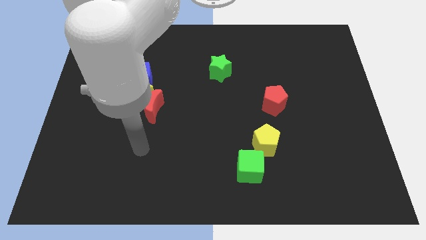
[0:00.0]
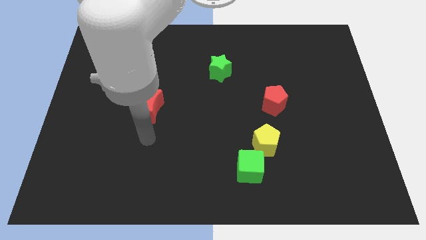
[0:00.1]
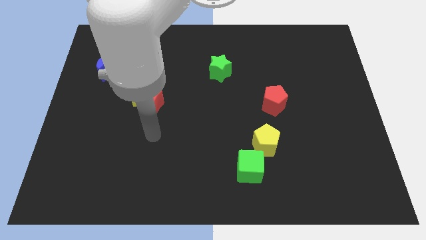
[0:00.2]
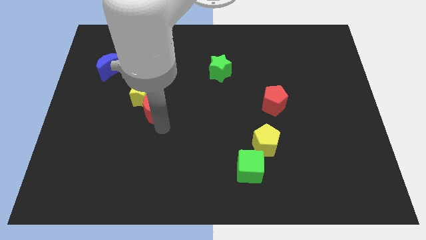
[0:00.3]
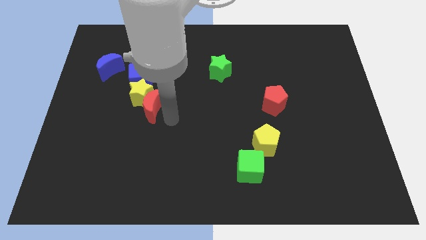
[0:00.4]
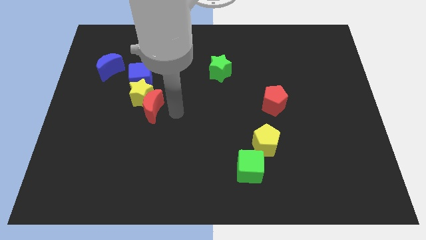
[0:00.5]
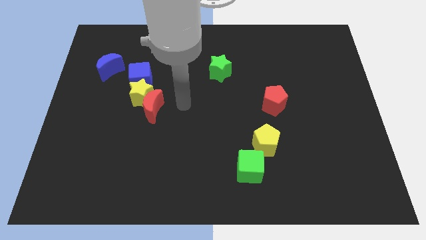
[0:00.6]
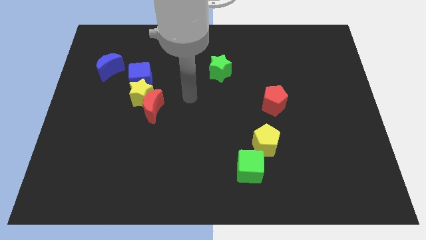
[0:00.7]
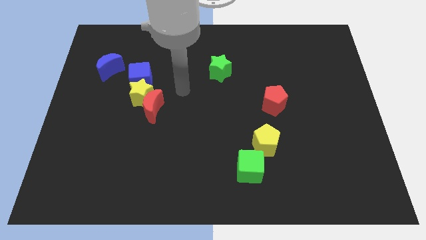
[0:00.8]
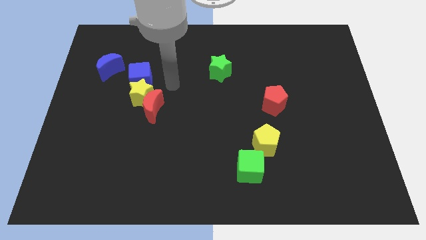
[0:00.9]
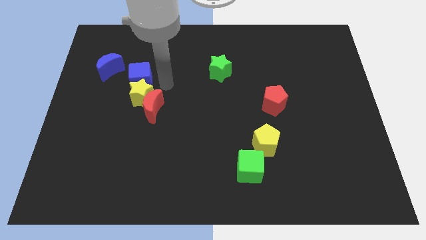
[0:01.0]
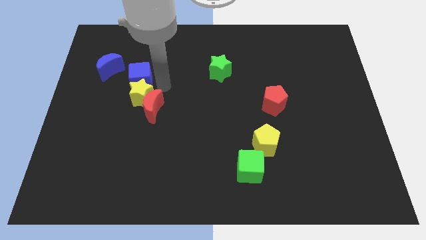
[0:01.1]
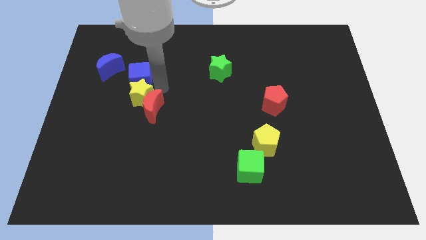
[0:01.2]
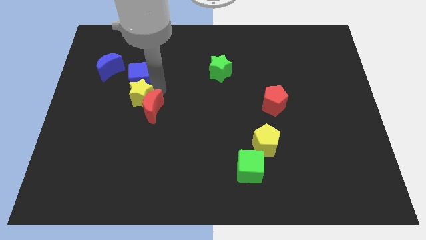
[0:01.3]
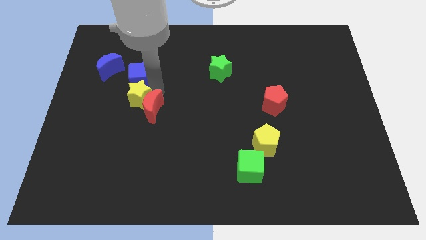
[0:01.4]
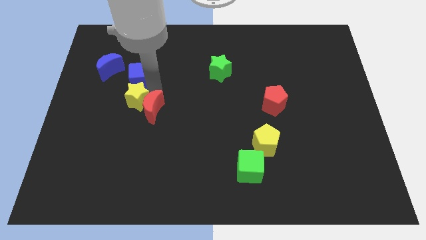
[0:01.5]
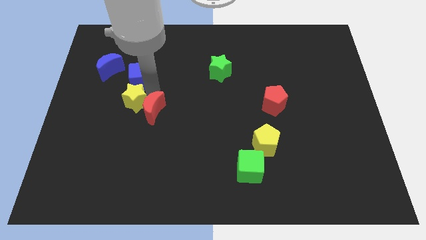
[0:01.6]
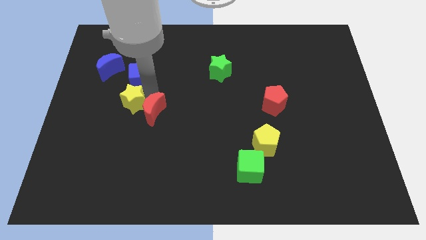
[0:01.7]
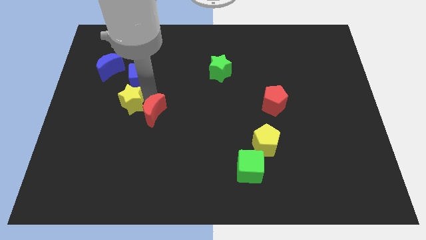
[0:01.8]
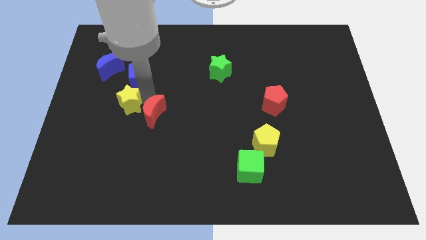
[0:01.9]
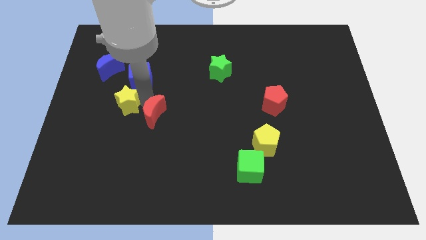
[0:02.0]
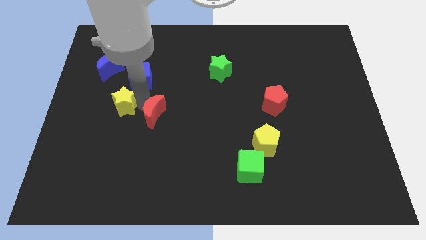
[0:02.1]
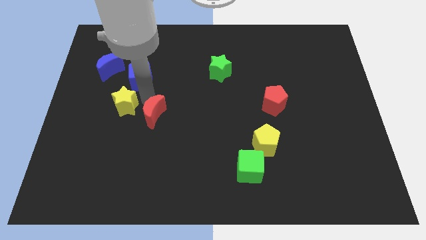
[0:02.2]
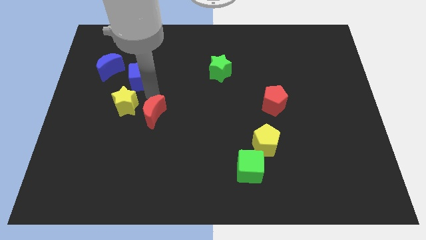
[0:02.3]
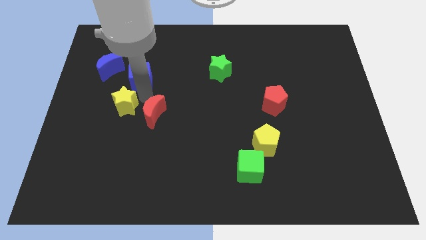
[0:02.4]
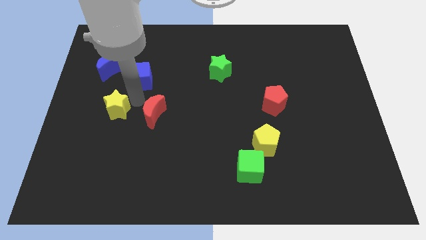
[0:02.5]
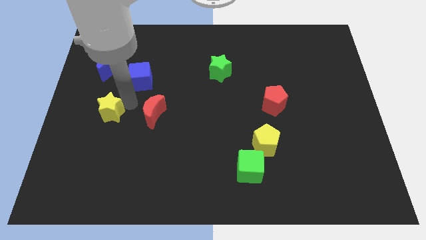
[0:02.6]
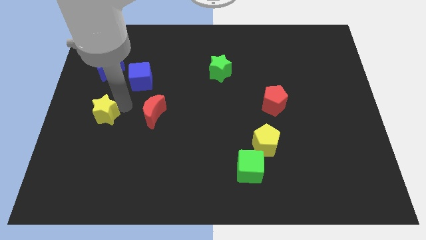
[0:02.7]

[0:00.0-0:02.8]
move the yellow star away from the red moon and blue cube

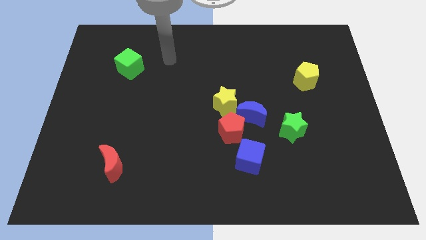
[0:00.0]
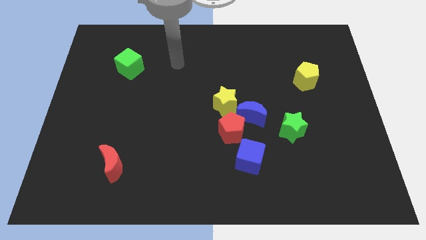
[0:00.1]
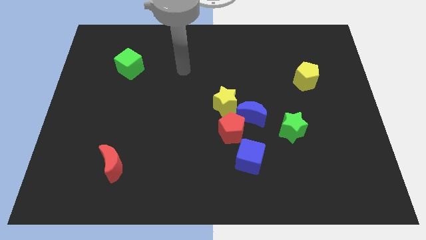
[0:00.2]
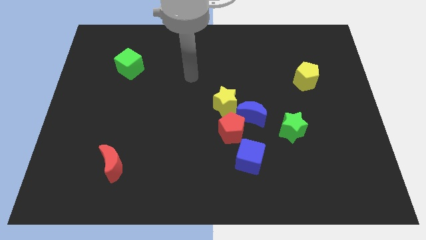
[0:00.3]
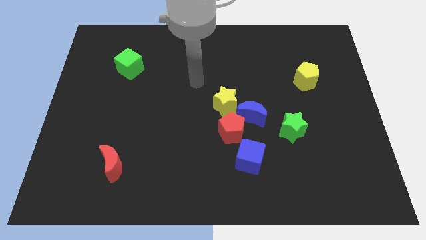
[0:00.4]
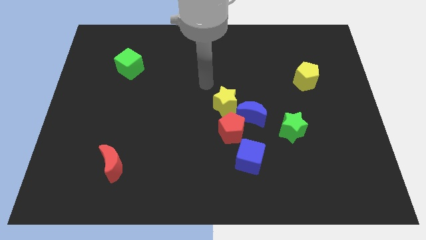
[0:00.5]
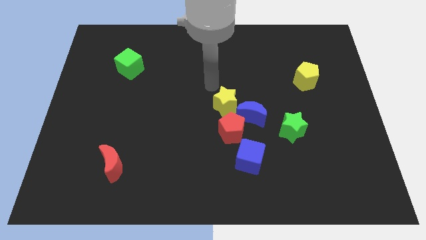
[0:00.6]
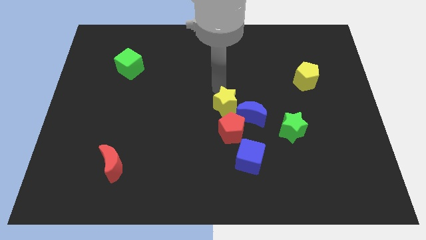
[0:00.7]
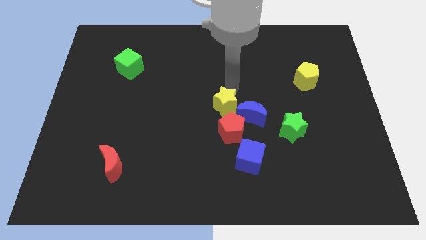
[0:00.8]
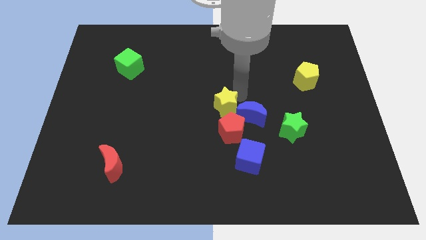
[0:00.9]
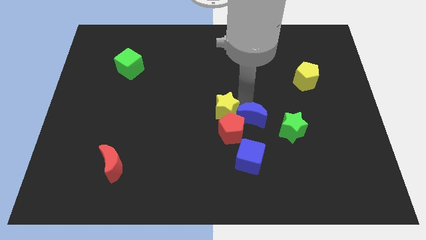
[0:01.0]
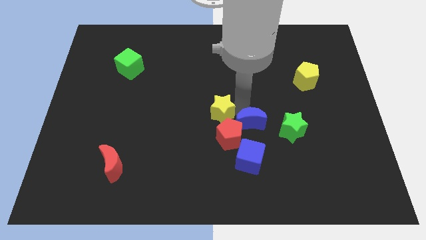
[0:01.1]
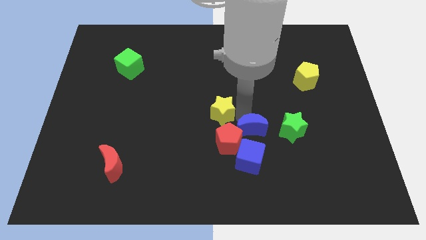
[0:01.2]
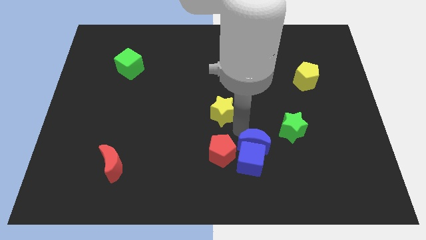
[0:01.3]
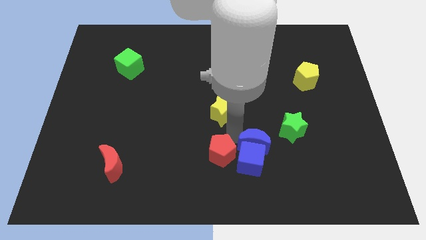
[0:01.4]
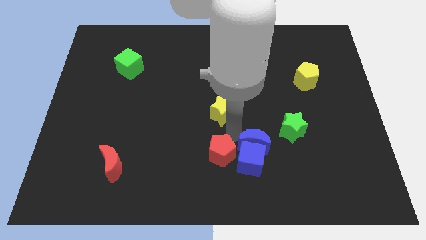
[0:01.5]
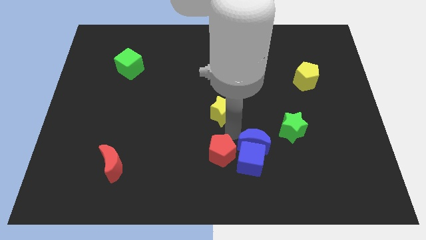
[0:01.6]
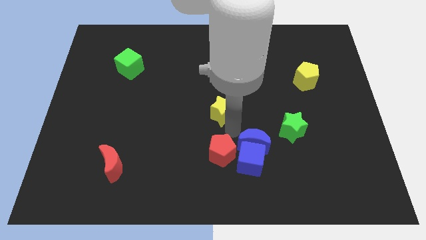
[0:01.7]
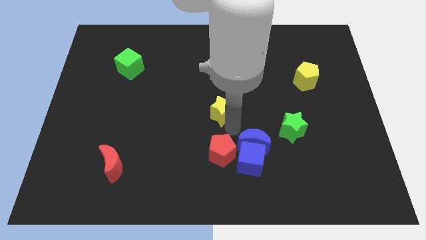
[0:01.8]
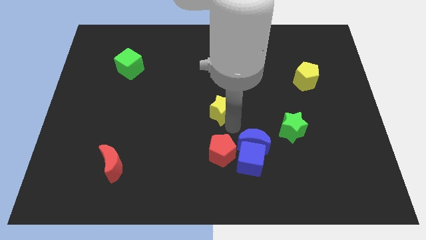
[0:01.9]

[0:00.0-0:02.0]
separate the yellow star from the blue moon and red pentagon

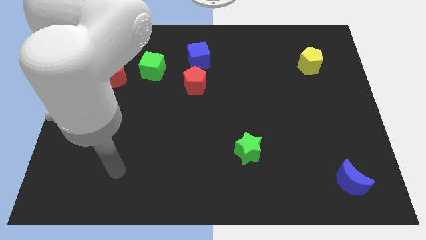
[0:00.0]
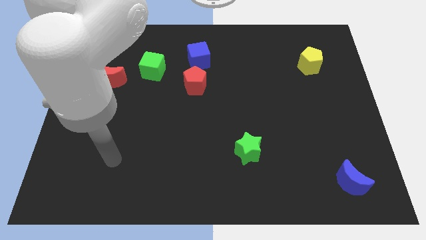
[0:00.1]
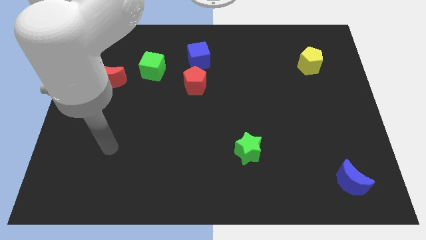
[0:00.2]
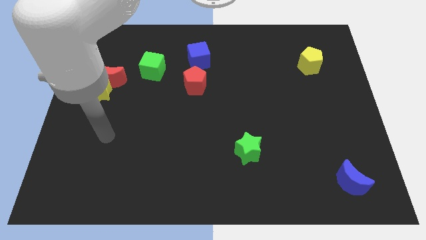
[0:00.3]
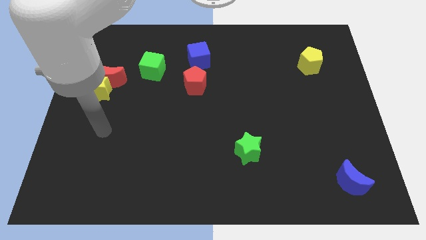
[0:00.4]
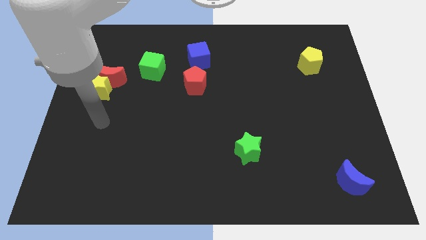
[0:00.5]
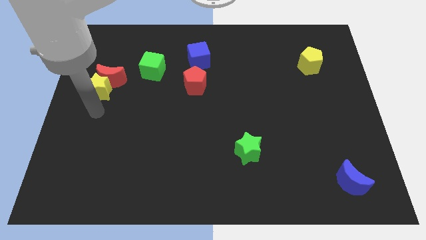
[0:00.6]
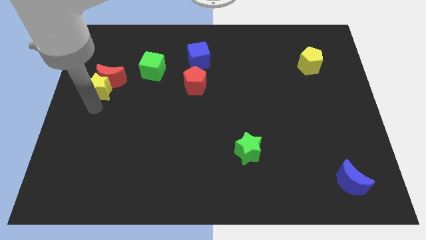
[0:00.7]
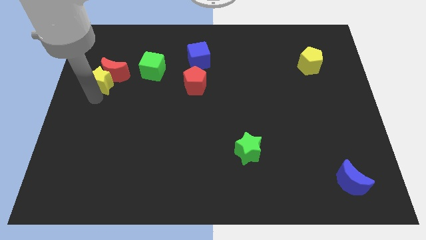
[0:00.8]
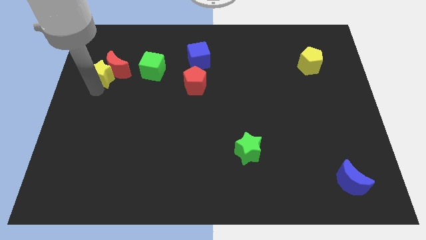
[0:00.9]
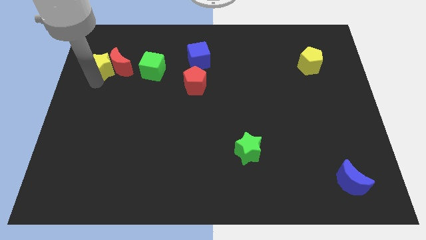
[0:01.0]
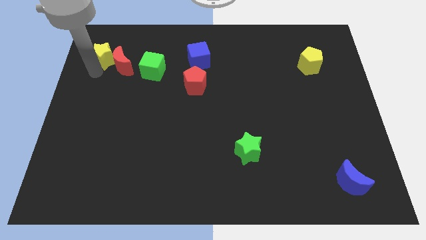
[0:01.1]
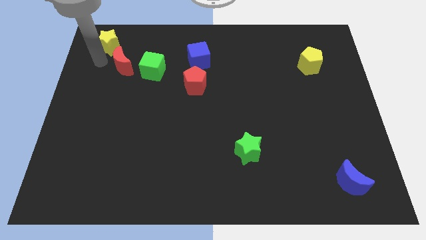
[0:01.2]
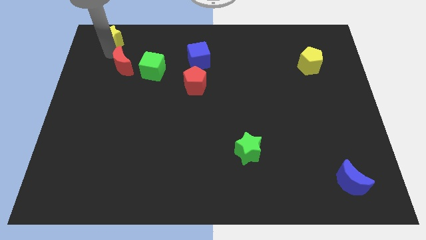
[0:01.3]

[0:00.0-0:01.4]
move the red moon away from the yellow star

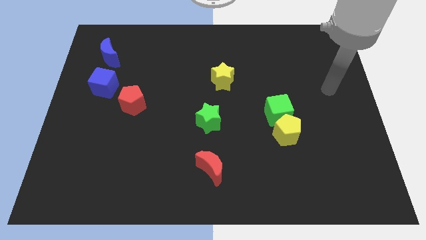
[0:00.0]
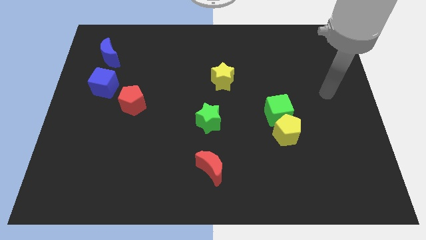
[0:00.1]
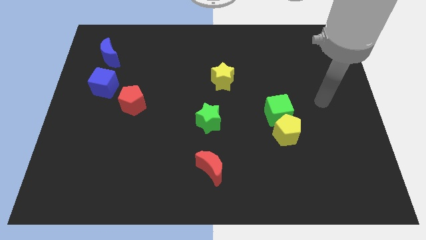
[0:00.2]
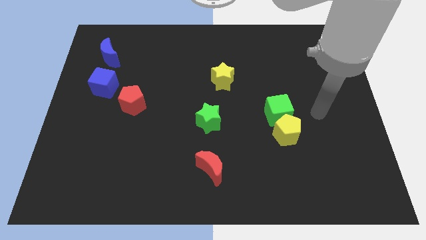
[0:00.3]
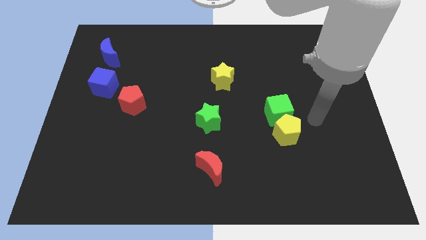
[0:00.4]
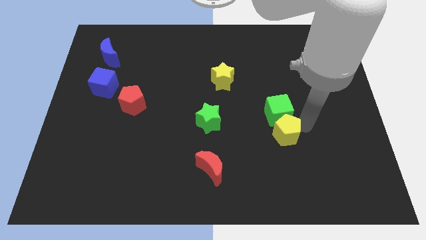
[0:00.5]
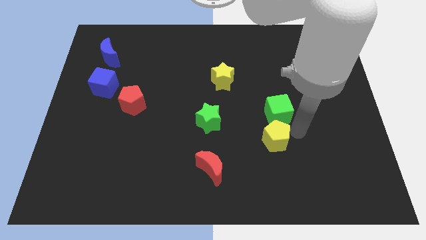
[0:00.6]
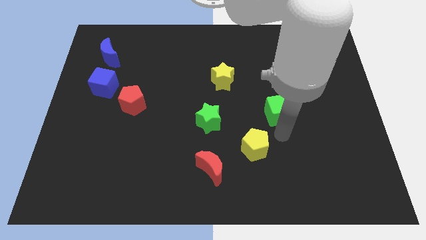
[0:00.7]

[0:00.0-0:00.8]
pull the green cube apart from the yellow pentagon

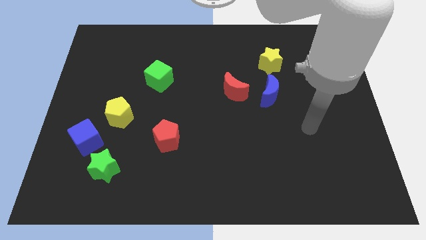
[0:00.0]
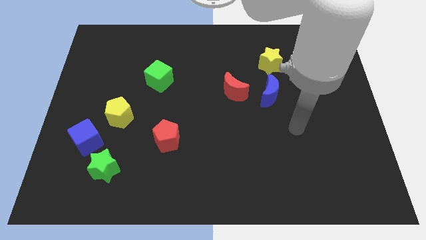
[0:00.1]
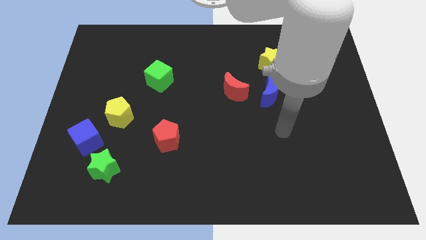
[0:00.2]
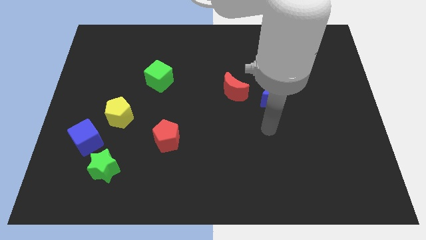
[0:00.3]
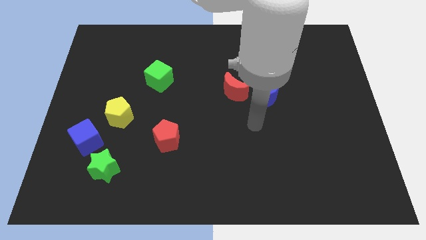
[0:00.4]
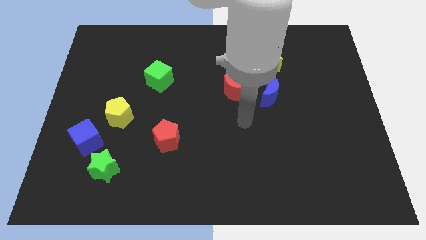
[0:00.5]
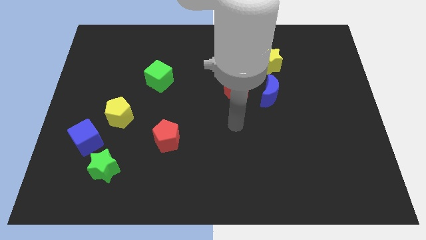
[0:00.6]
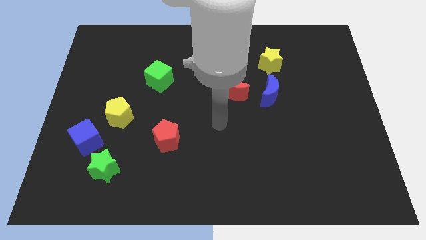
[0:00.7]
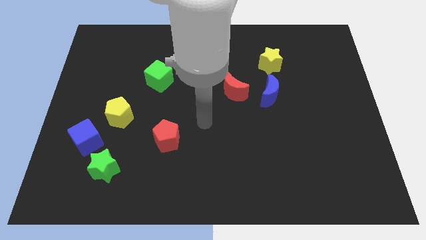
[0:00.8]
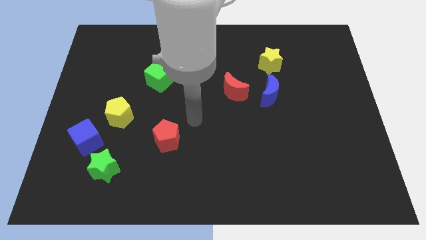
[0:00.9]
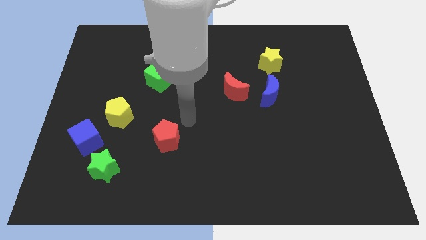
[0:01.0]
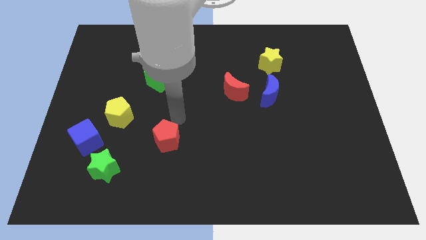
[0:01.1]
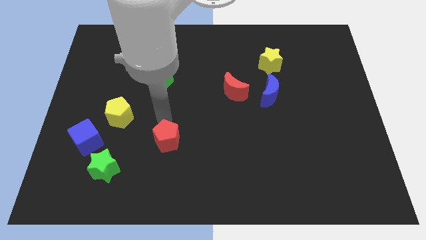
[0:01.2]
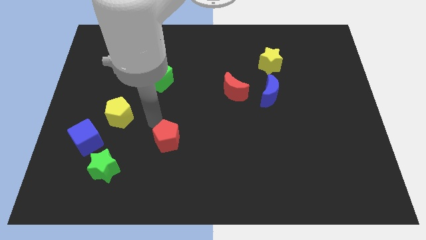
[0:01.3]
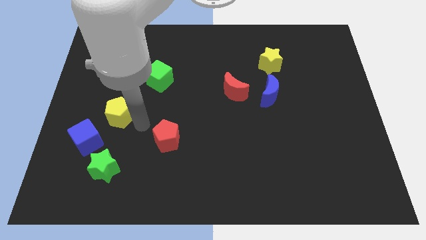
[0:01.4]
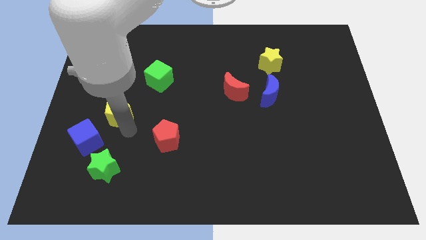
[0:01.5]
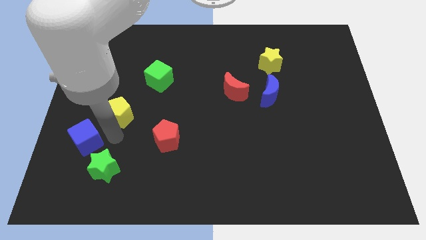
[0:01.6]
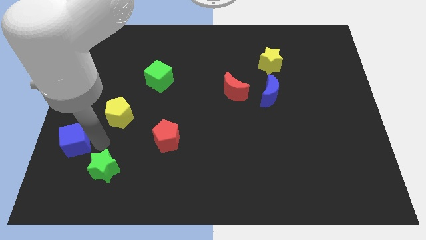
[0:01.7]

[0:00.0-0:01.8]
move the green star away from the blue cube

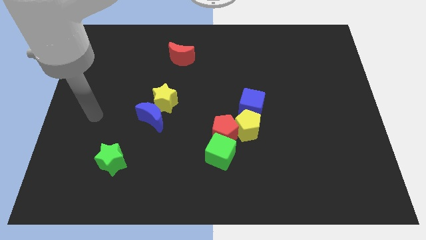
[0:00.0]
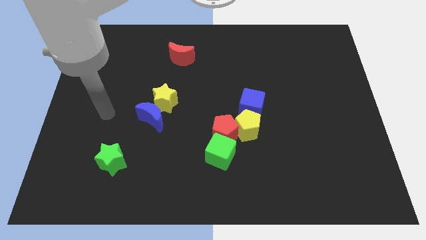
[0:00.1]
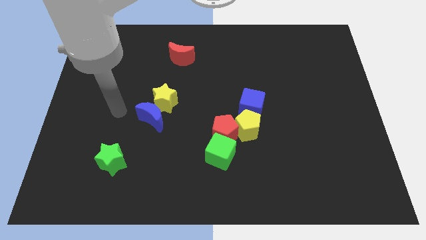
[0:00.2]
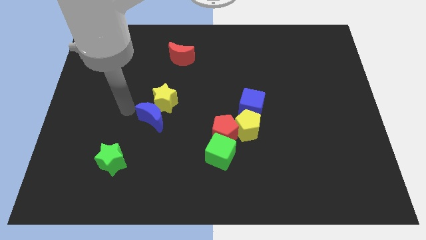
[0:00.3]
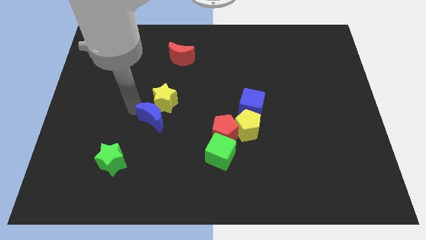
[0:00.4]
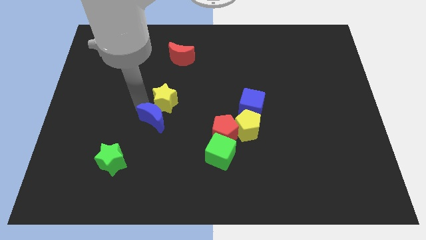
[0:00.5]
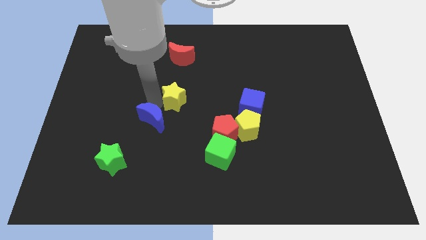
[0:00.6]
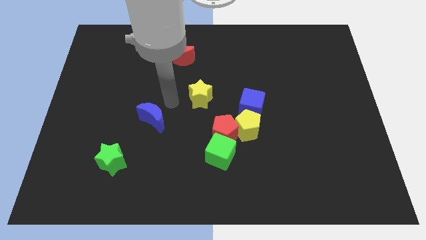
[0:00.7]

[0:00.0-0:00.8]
move the blue moon away from the yellow star
